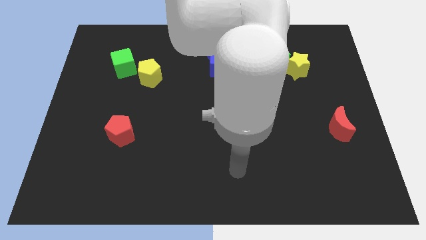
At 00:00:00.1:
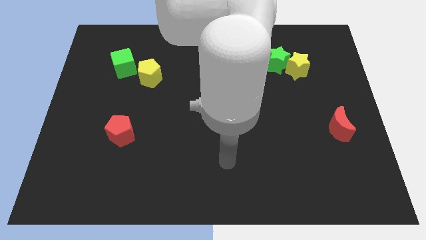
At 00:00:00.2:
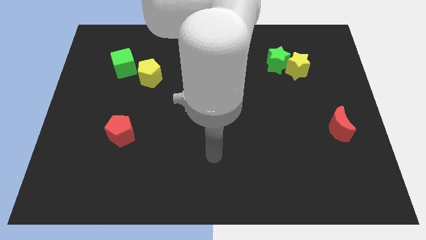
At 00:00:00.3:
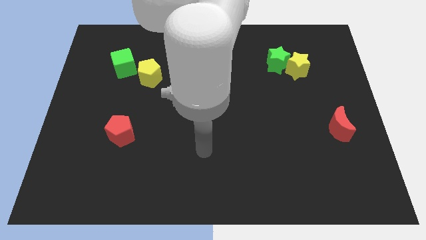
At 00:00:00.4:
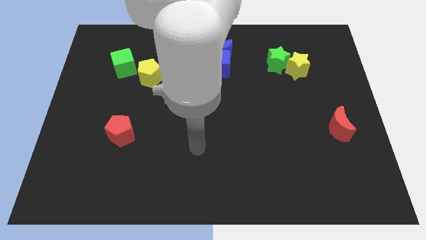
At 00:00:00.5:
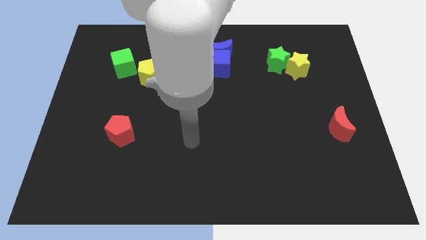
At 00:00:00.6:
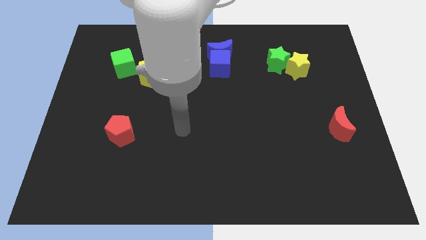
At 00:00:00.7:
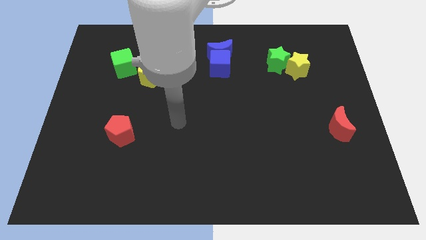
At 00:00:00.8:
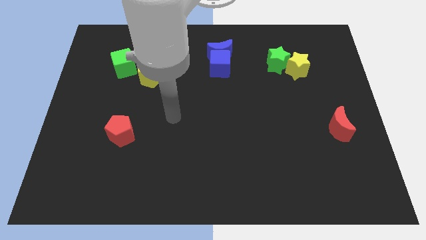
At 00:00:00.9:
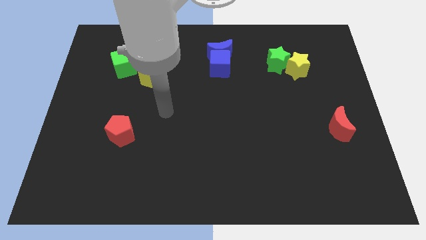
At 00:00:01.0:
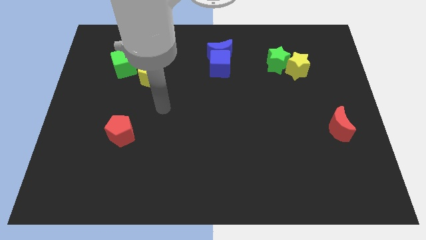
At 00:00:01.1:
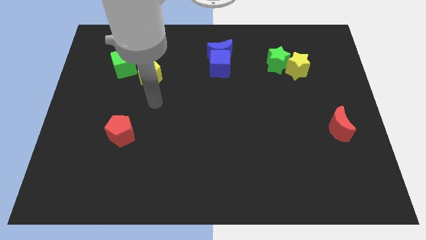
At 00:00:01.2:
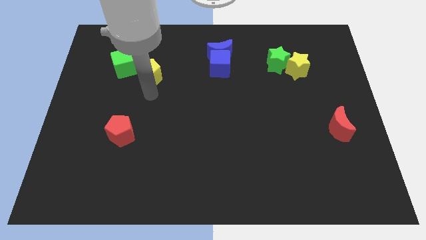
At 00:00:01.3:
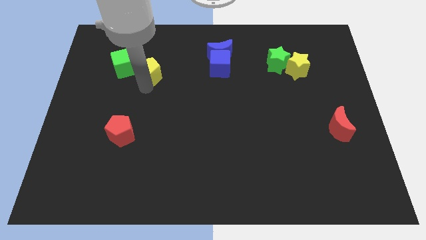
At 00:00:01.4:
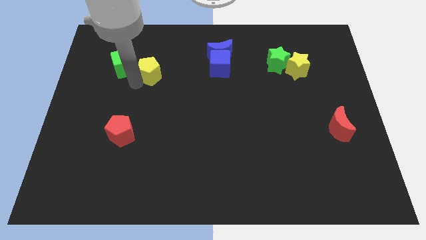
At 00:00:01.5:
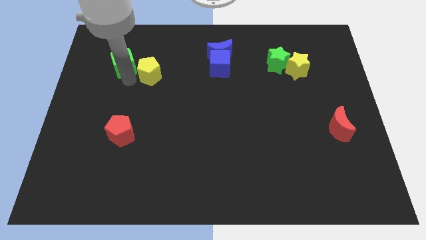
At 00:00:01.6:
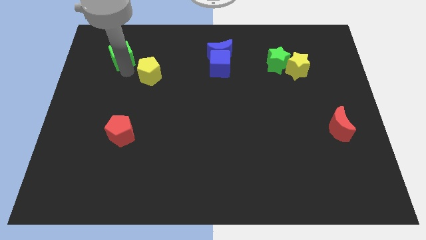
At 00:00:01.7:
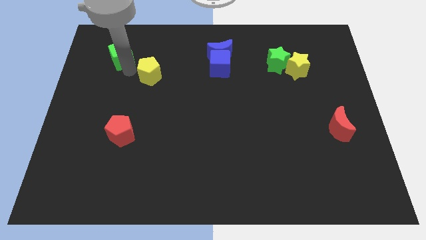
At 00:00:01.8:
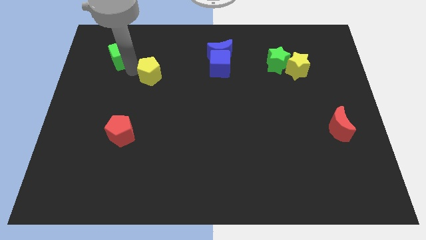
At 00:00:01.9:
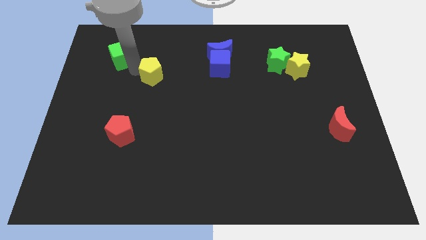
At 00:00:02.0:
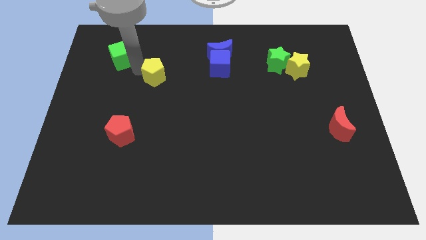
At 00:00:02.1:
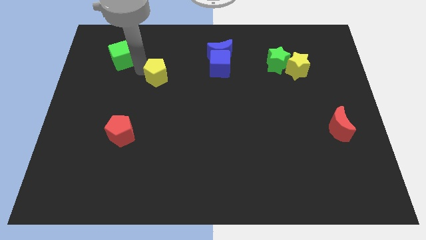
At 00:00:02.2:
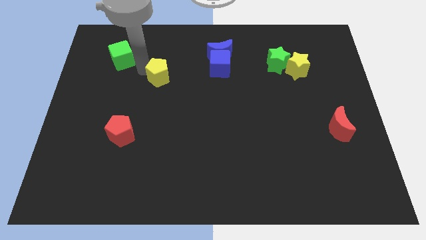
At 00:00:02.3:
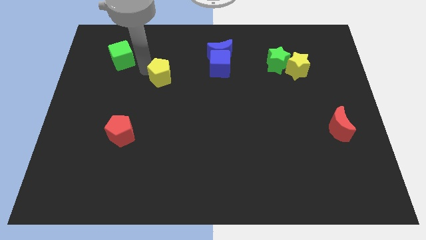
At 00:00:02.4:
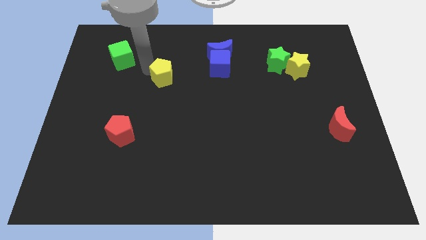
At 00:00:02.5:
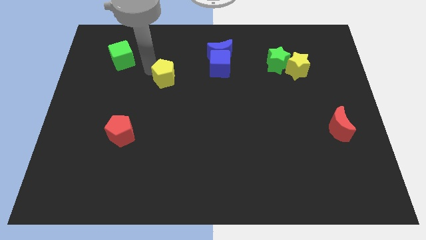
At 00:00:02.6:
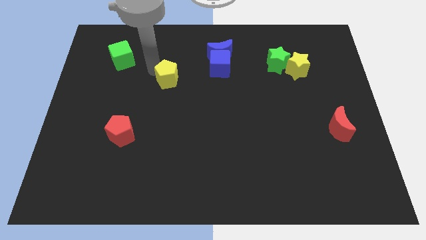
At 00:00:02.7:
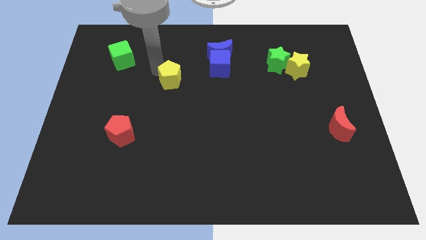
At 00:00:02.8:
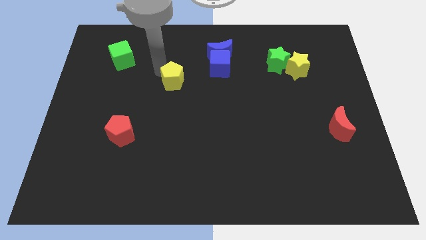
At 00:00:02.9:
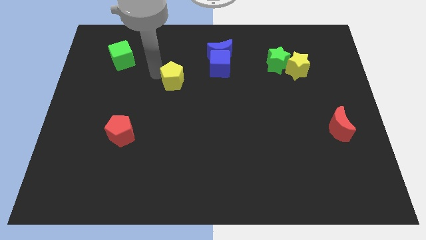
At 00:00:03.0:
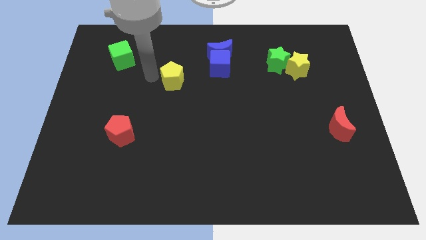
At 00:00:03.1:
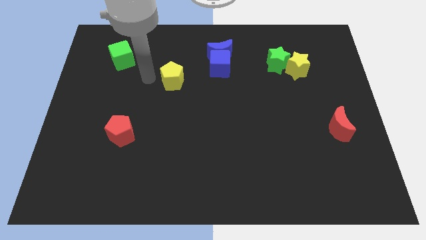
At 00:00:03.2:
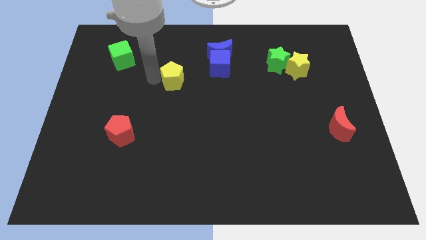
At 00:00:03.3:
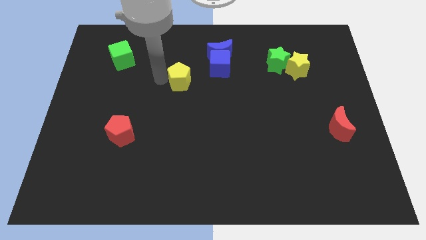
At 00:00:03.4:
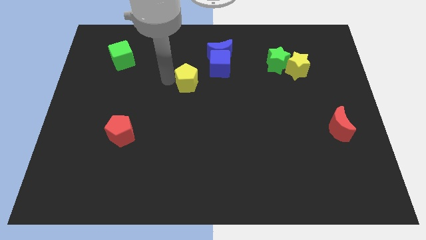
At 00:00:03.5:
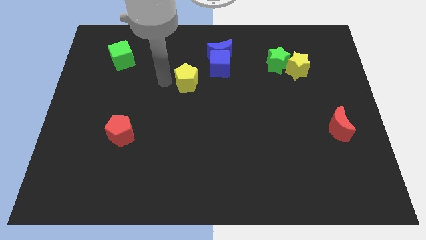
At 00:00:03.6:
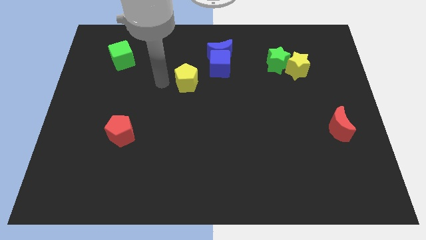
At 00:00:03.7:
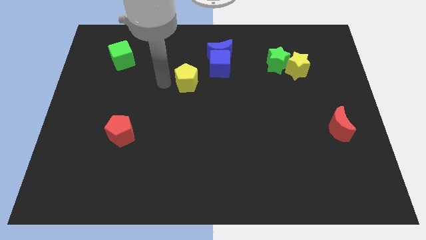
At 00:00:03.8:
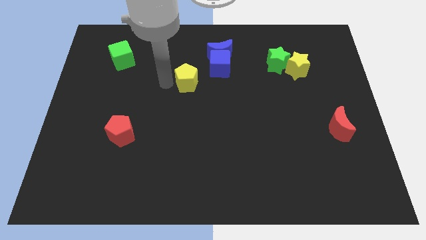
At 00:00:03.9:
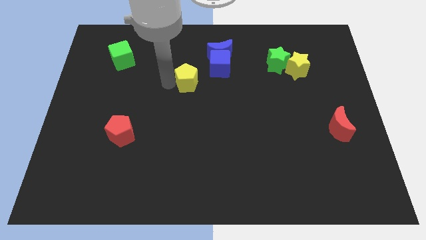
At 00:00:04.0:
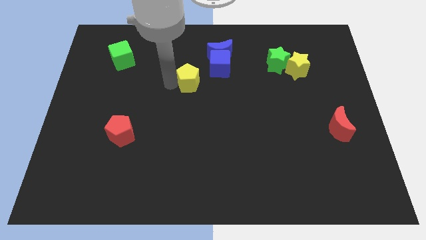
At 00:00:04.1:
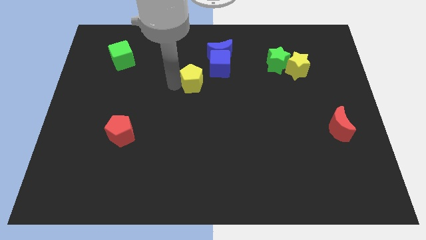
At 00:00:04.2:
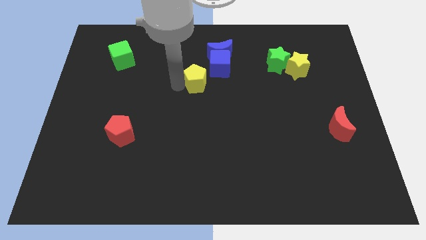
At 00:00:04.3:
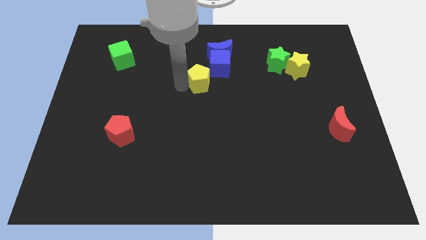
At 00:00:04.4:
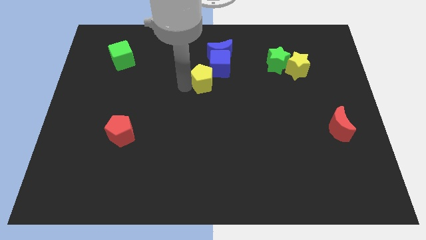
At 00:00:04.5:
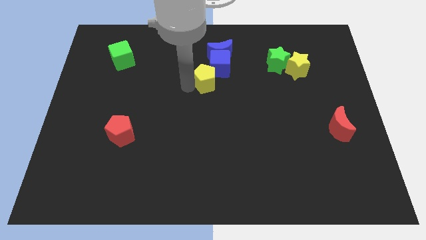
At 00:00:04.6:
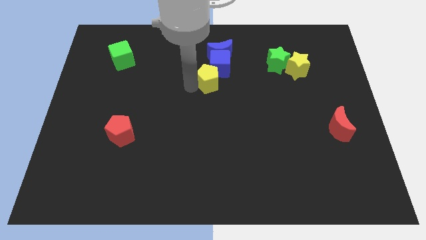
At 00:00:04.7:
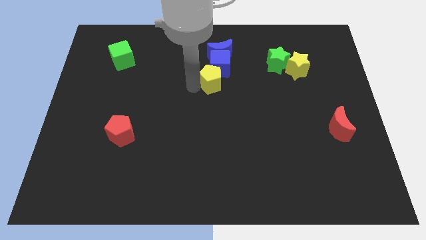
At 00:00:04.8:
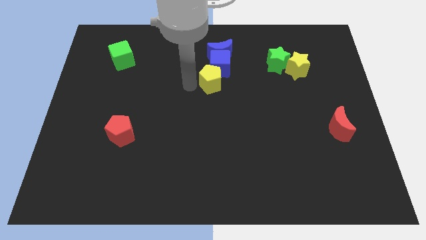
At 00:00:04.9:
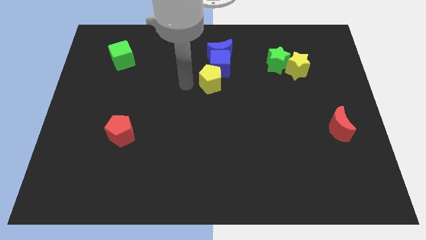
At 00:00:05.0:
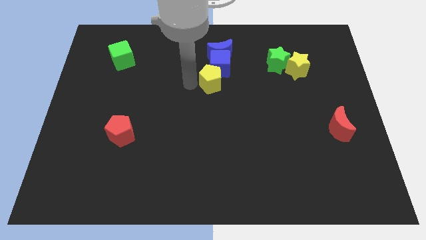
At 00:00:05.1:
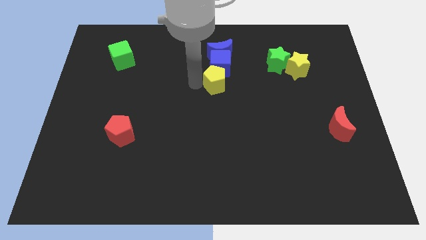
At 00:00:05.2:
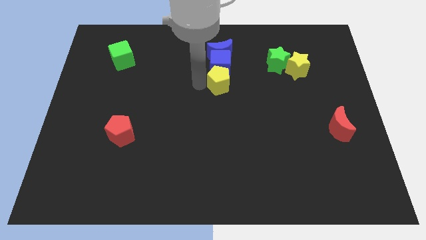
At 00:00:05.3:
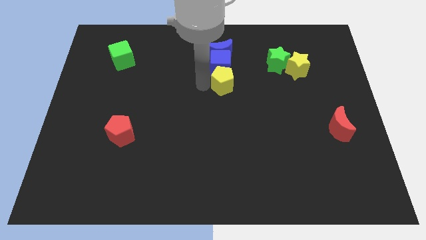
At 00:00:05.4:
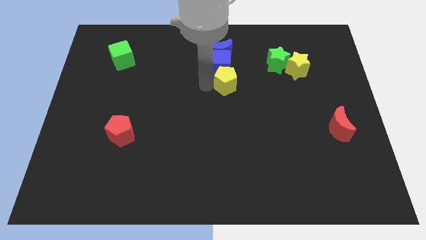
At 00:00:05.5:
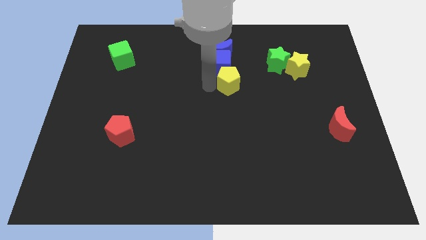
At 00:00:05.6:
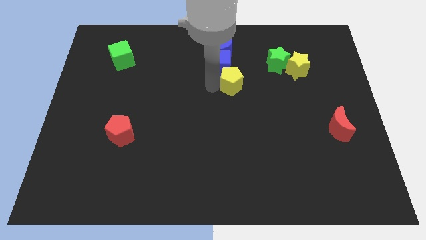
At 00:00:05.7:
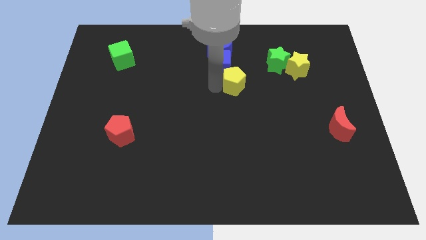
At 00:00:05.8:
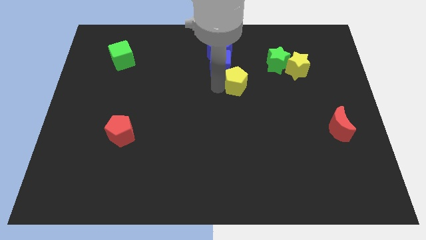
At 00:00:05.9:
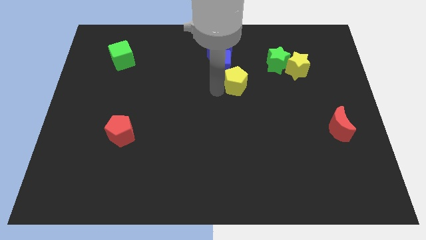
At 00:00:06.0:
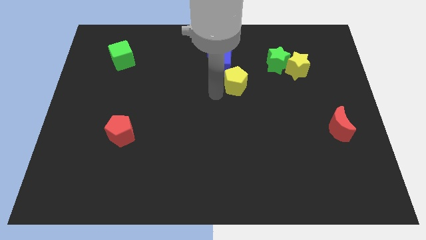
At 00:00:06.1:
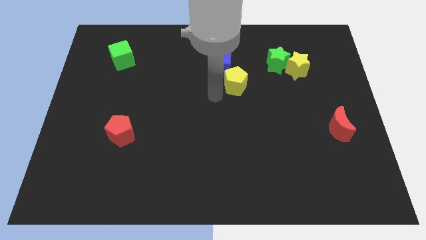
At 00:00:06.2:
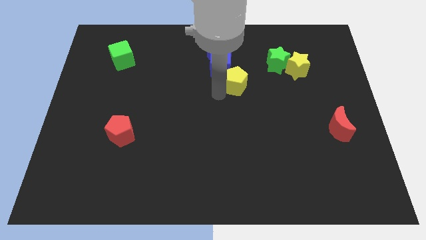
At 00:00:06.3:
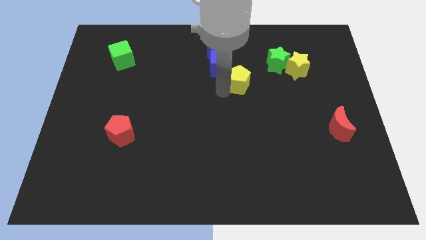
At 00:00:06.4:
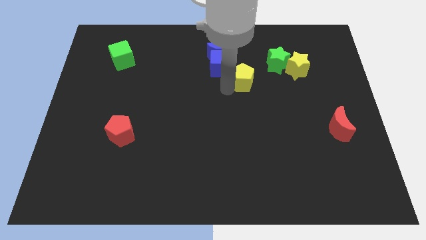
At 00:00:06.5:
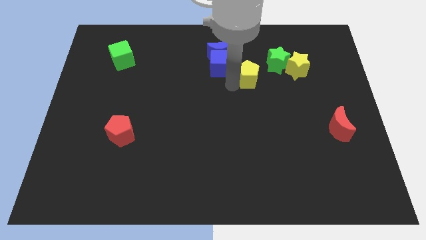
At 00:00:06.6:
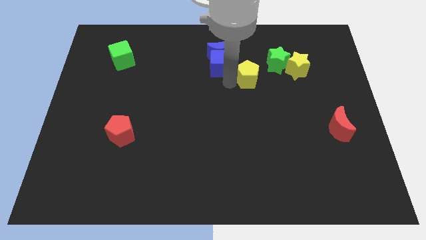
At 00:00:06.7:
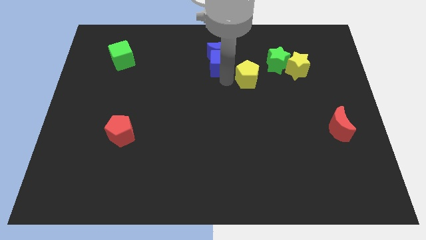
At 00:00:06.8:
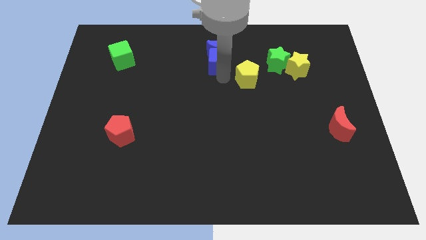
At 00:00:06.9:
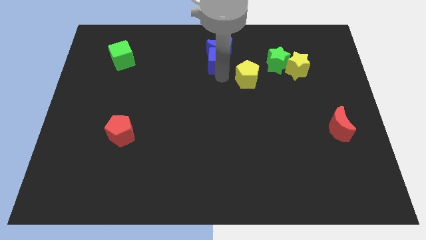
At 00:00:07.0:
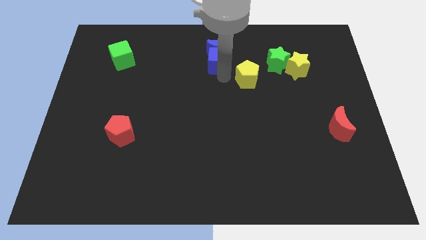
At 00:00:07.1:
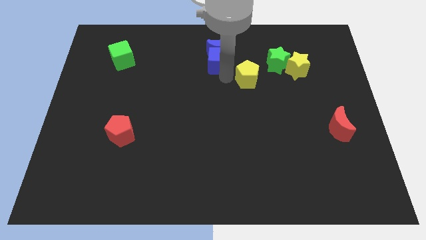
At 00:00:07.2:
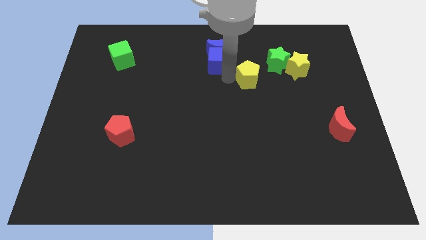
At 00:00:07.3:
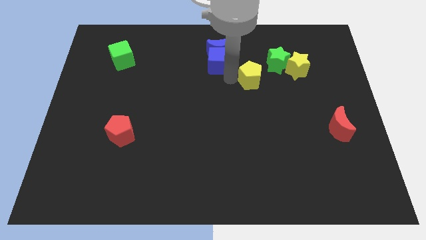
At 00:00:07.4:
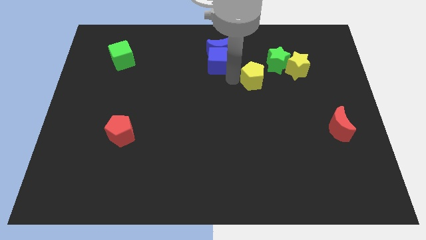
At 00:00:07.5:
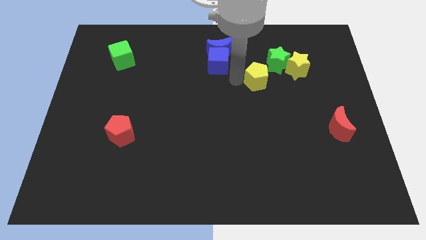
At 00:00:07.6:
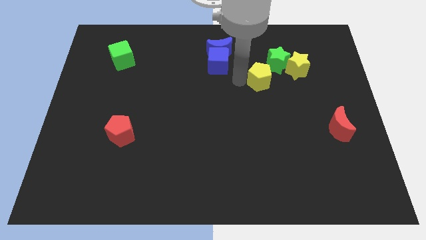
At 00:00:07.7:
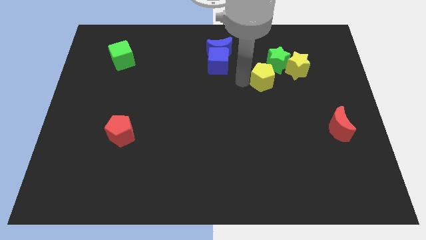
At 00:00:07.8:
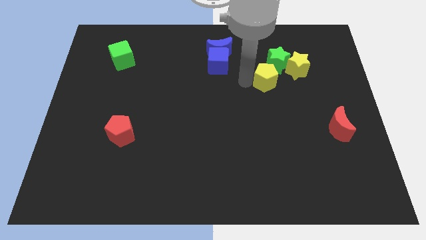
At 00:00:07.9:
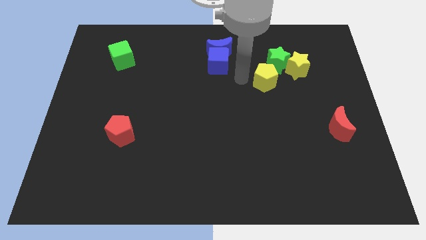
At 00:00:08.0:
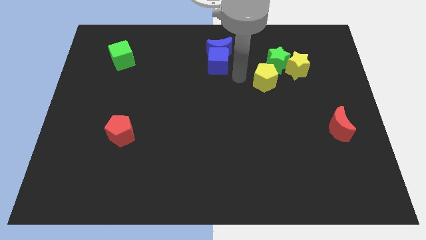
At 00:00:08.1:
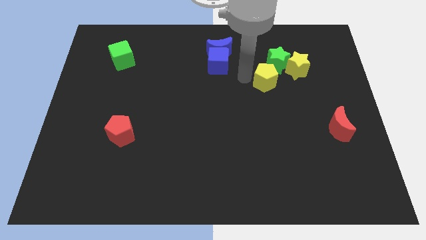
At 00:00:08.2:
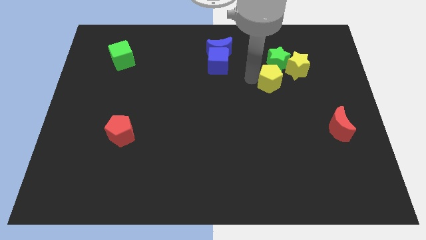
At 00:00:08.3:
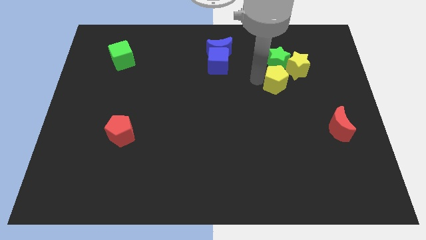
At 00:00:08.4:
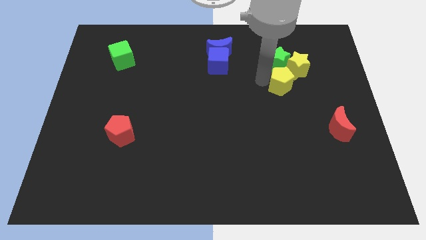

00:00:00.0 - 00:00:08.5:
slide the yellow pentagon diagonally down and to the right of the green star
